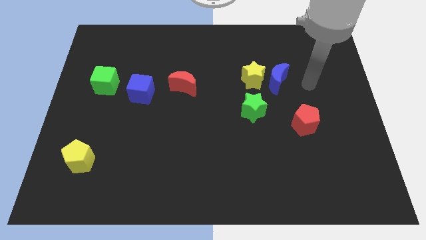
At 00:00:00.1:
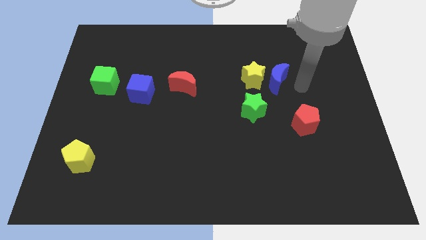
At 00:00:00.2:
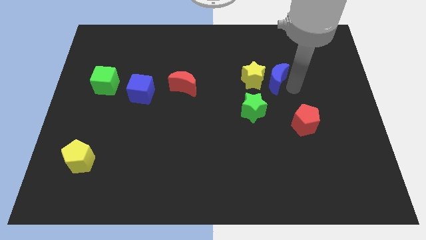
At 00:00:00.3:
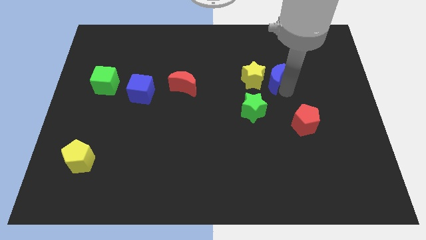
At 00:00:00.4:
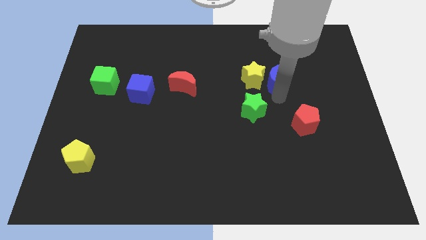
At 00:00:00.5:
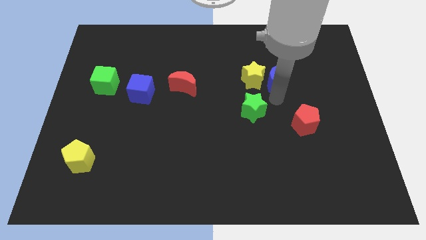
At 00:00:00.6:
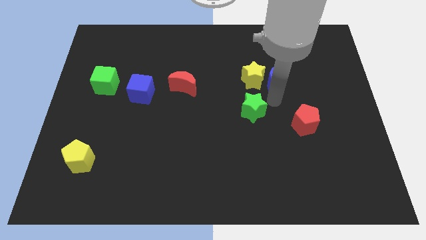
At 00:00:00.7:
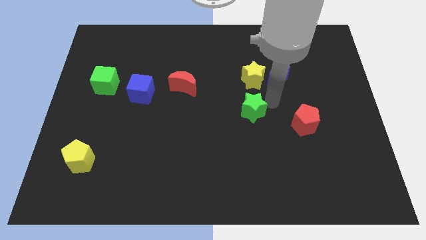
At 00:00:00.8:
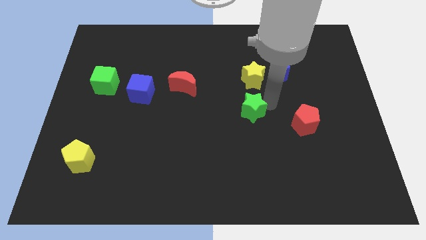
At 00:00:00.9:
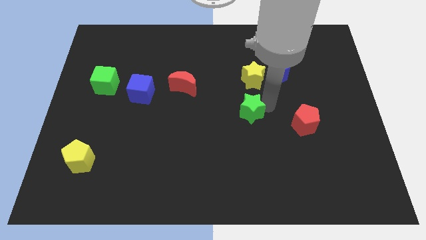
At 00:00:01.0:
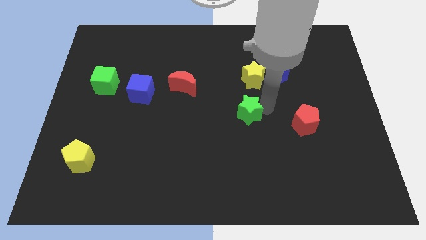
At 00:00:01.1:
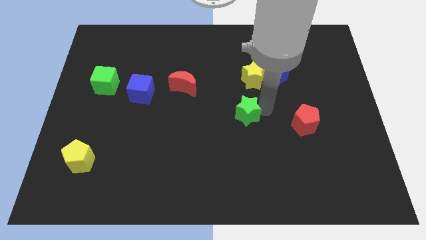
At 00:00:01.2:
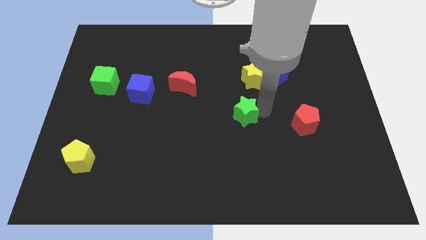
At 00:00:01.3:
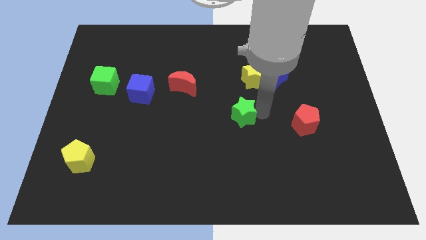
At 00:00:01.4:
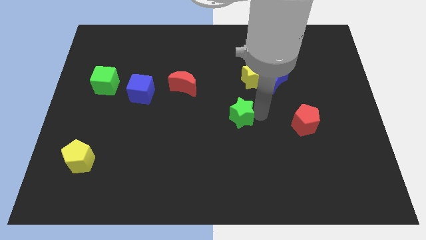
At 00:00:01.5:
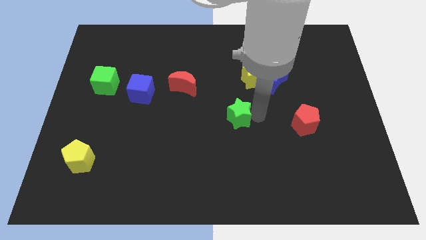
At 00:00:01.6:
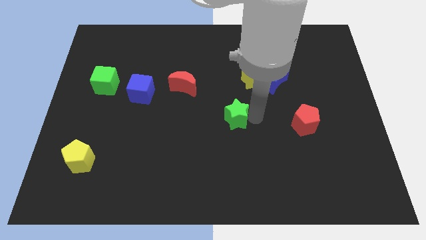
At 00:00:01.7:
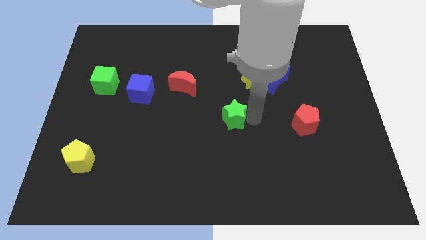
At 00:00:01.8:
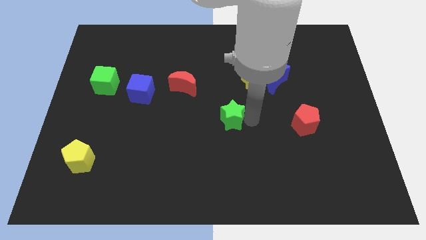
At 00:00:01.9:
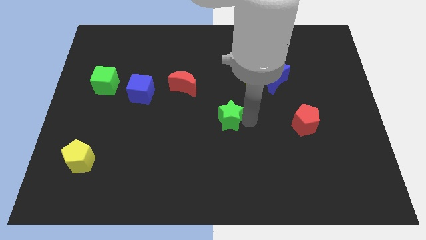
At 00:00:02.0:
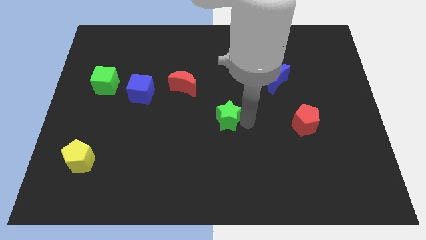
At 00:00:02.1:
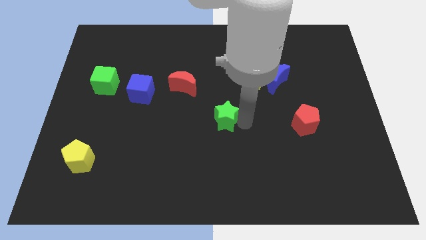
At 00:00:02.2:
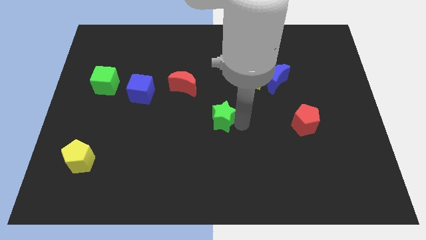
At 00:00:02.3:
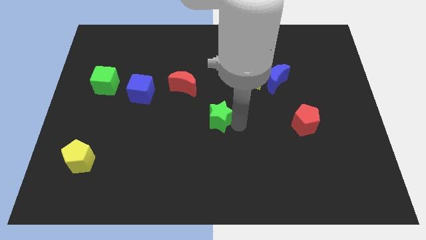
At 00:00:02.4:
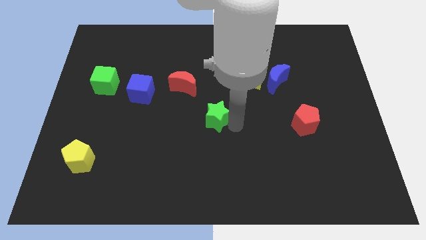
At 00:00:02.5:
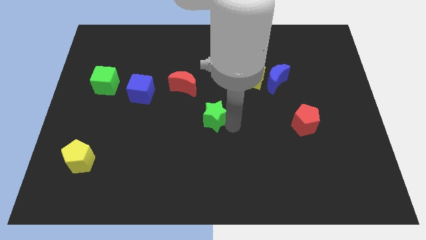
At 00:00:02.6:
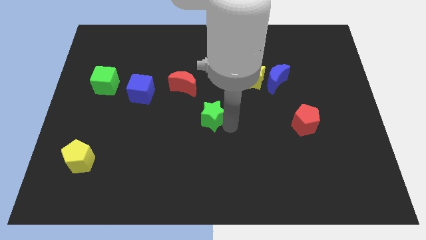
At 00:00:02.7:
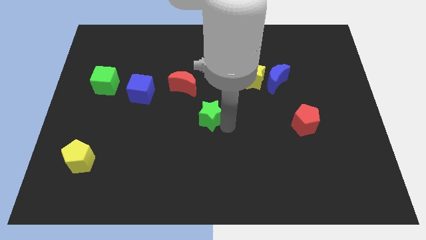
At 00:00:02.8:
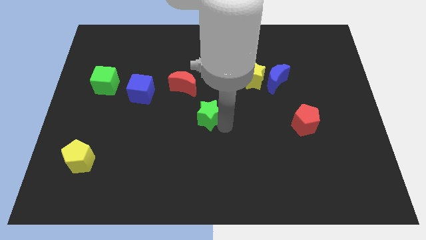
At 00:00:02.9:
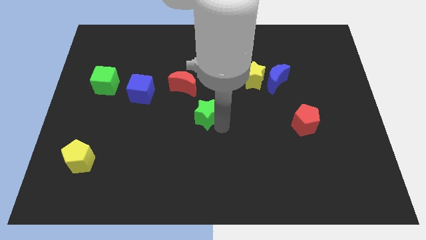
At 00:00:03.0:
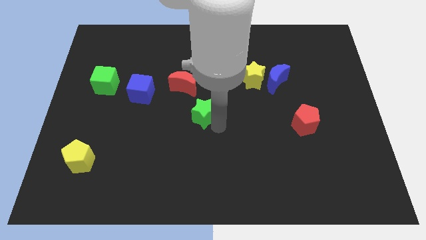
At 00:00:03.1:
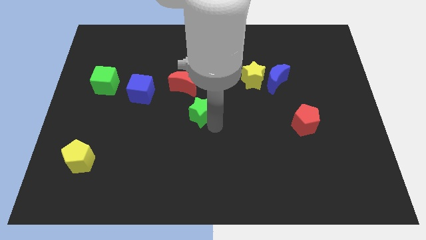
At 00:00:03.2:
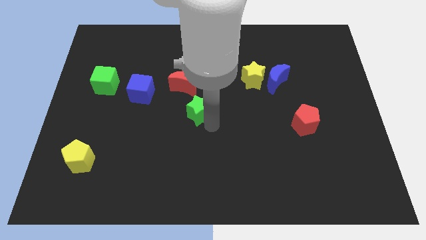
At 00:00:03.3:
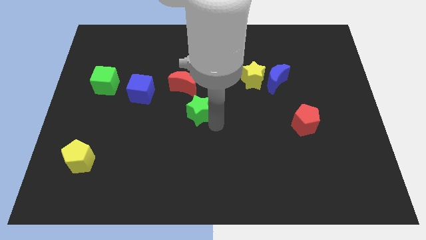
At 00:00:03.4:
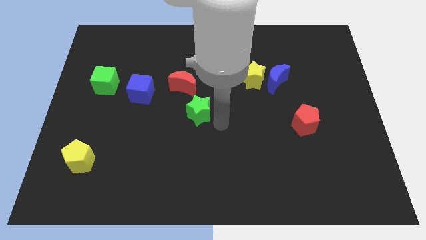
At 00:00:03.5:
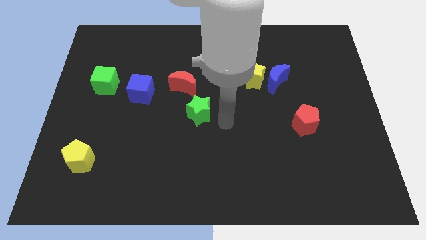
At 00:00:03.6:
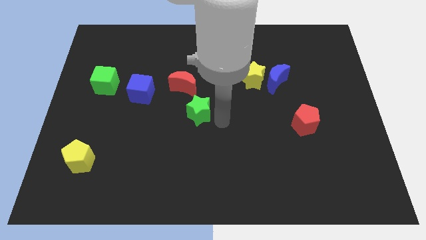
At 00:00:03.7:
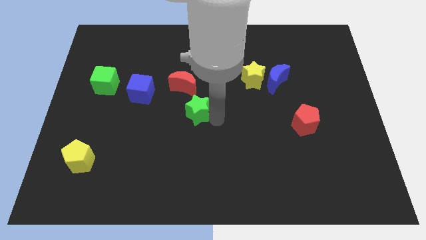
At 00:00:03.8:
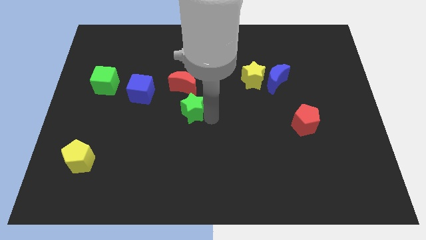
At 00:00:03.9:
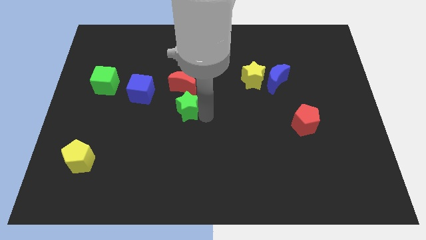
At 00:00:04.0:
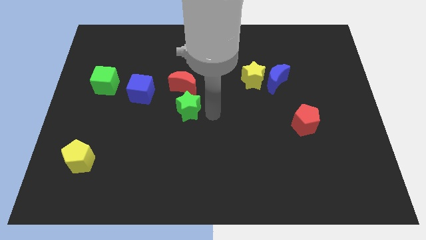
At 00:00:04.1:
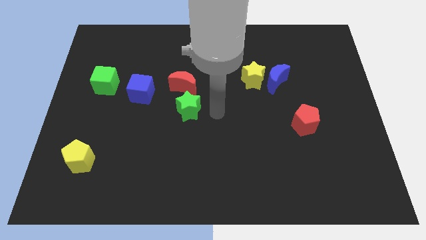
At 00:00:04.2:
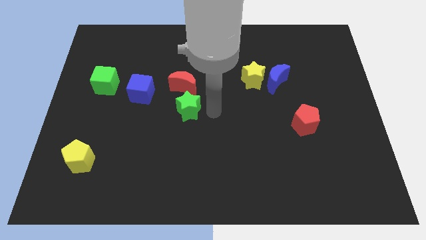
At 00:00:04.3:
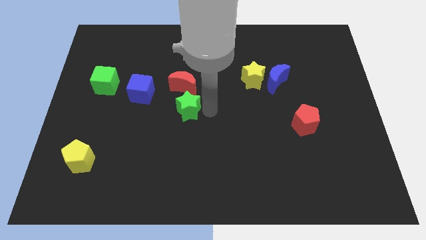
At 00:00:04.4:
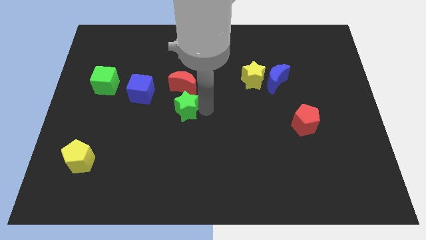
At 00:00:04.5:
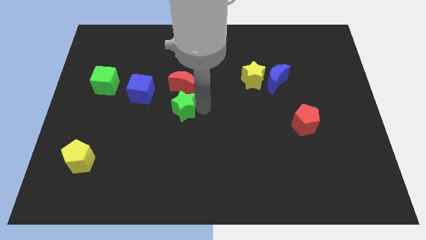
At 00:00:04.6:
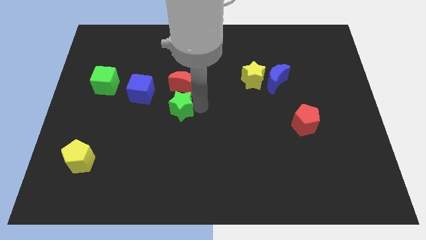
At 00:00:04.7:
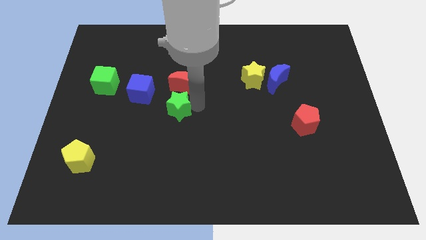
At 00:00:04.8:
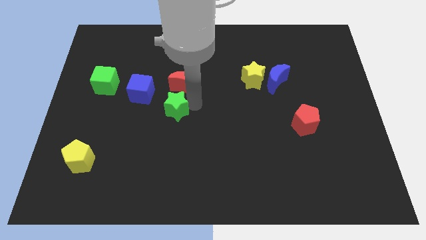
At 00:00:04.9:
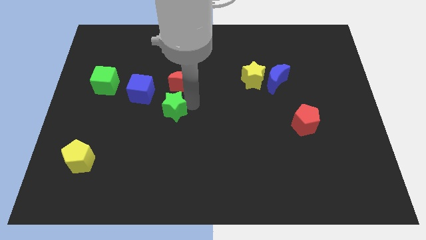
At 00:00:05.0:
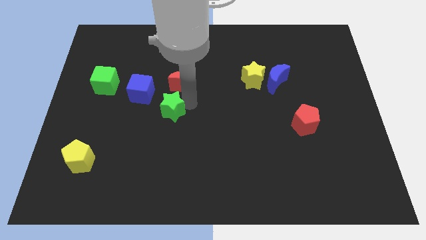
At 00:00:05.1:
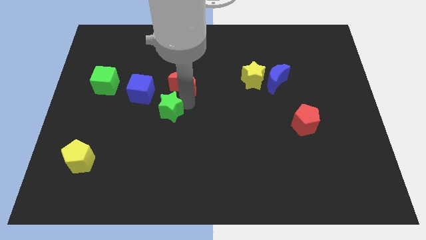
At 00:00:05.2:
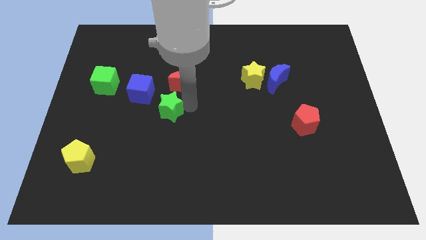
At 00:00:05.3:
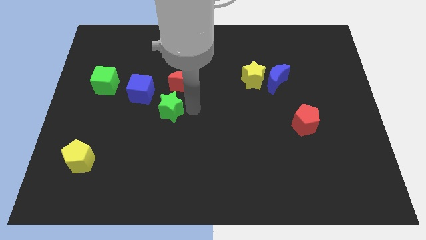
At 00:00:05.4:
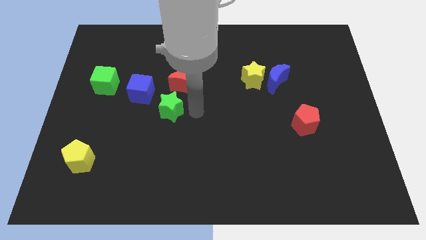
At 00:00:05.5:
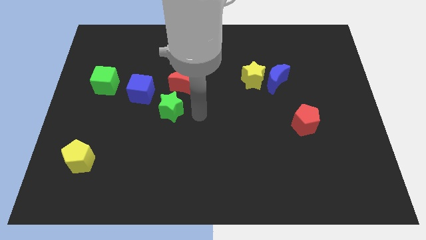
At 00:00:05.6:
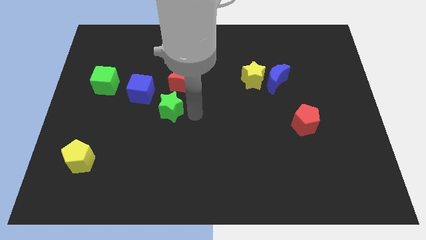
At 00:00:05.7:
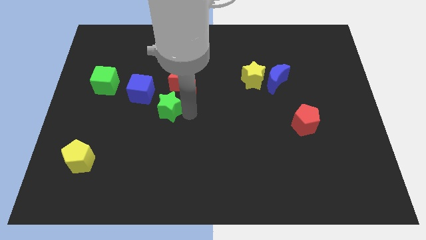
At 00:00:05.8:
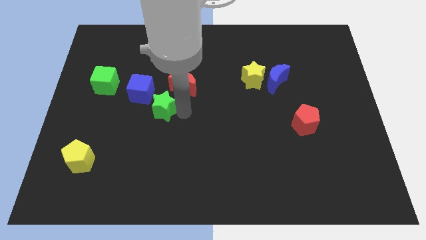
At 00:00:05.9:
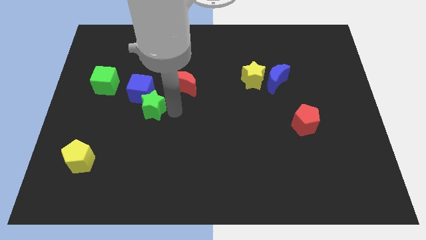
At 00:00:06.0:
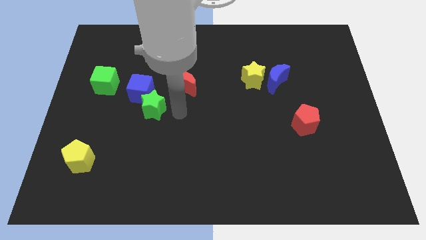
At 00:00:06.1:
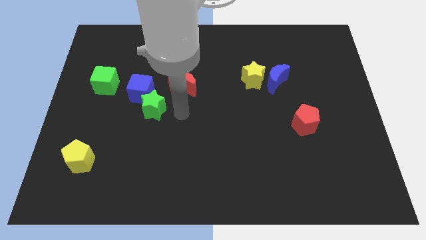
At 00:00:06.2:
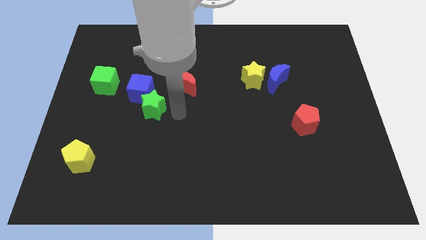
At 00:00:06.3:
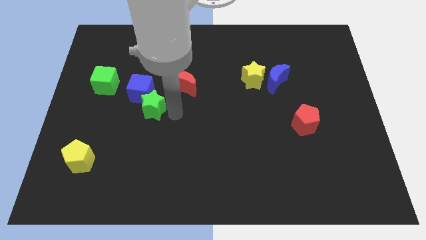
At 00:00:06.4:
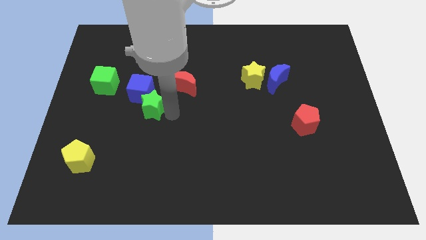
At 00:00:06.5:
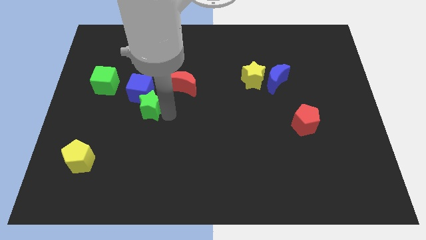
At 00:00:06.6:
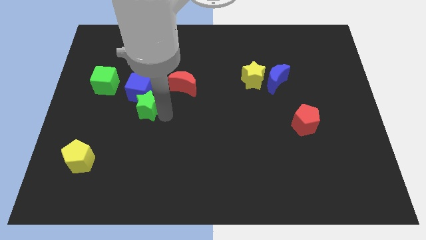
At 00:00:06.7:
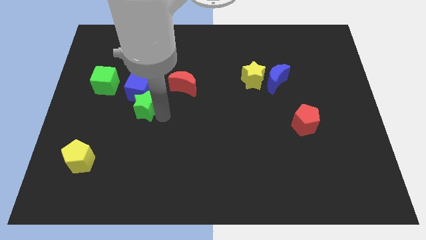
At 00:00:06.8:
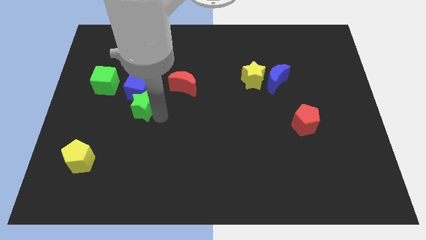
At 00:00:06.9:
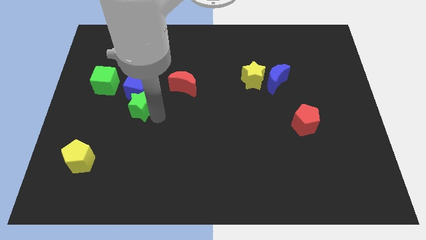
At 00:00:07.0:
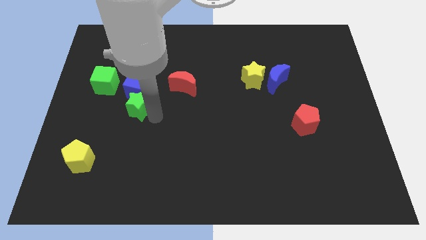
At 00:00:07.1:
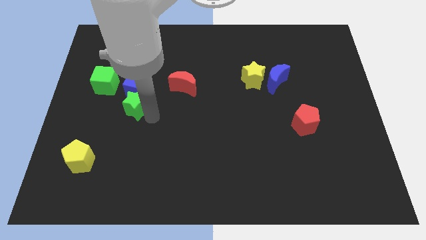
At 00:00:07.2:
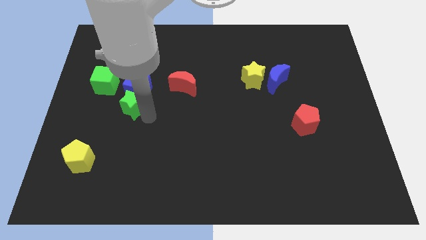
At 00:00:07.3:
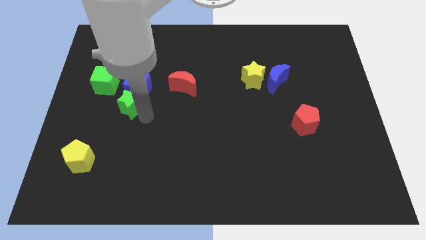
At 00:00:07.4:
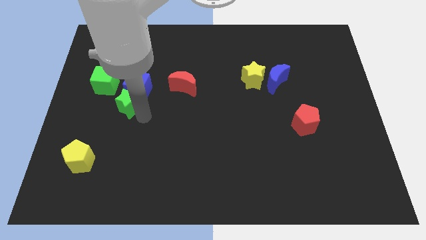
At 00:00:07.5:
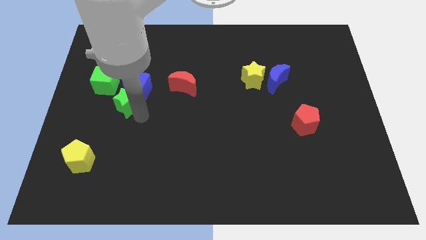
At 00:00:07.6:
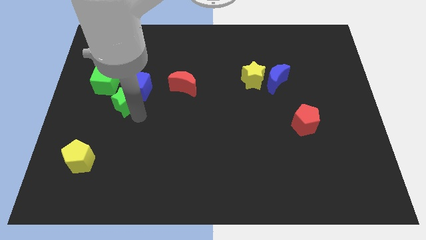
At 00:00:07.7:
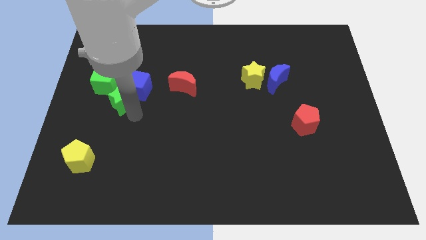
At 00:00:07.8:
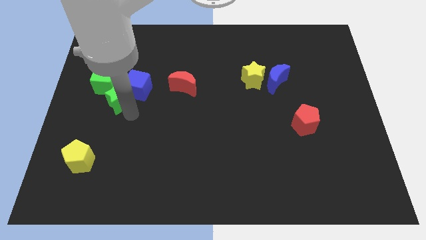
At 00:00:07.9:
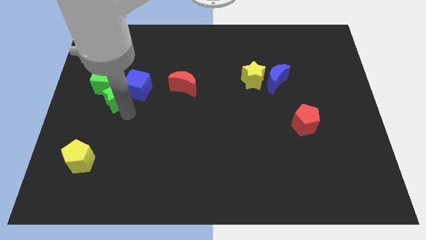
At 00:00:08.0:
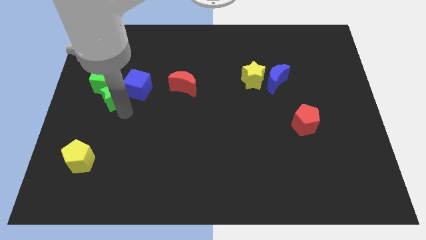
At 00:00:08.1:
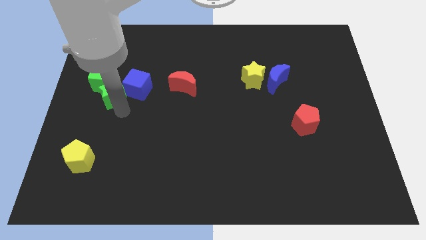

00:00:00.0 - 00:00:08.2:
put the green star close to the green cube
